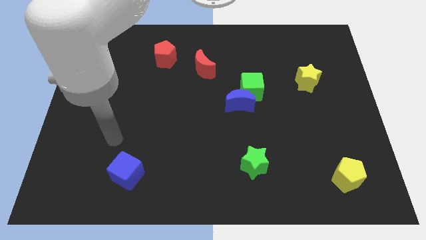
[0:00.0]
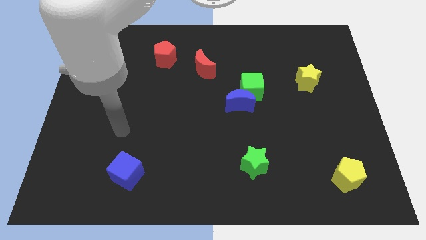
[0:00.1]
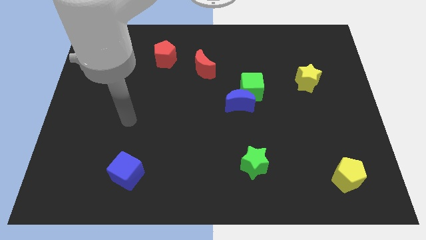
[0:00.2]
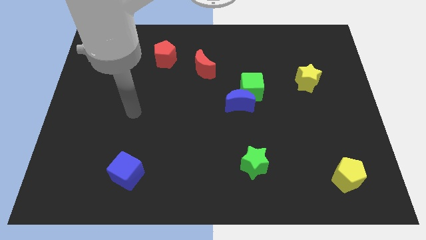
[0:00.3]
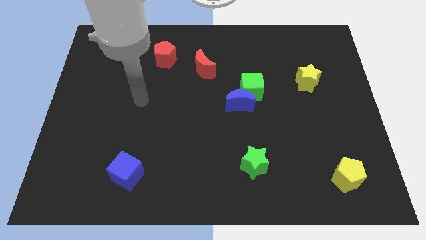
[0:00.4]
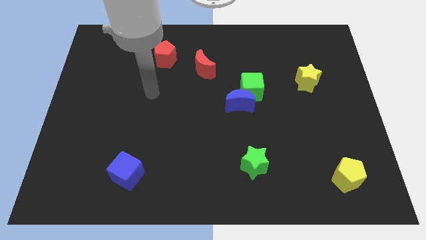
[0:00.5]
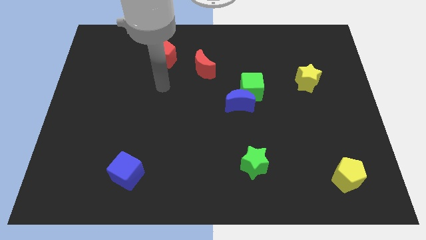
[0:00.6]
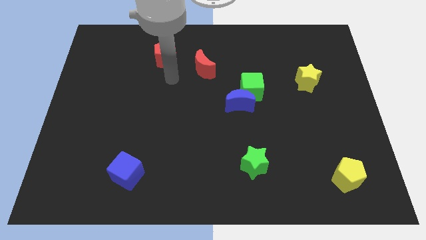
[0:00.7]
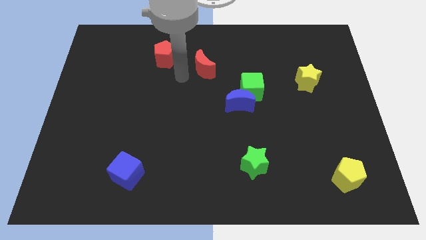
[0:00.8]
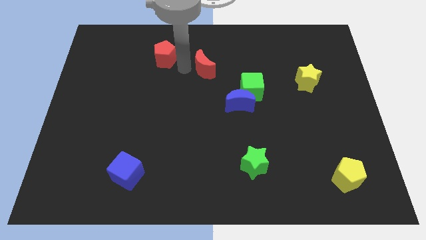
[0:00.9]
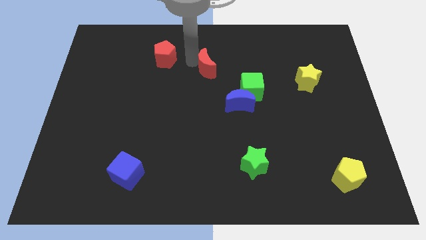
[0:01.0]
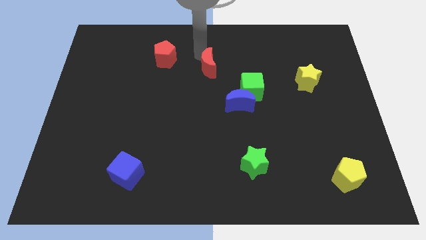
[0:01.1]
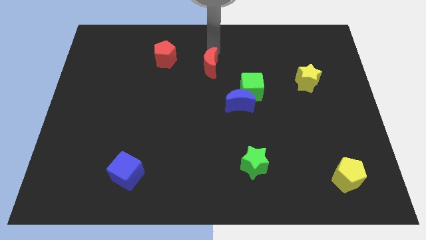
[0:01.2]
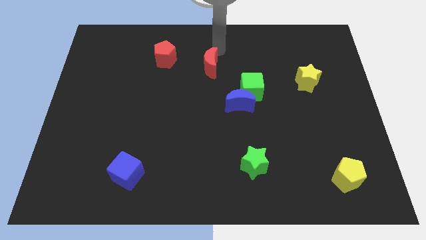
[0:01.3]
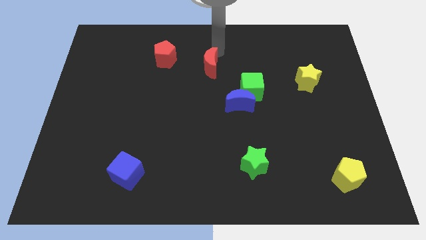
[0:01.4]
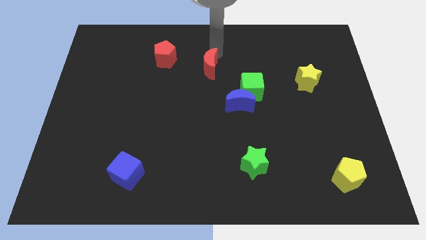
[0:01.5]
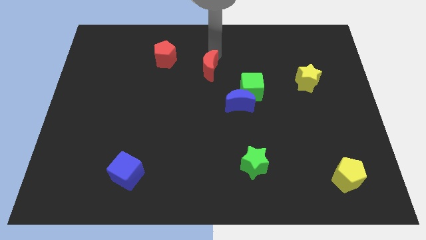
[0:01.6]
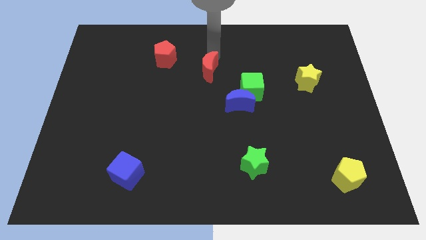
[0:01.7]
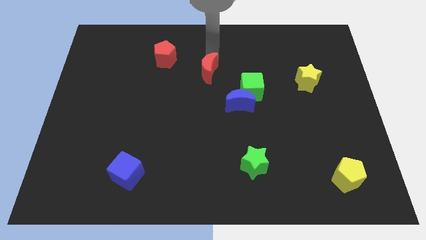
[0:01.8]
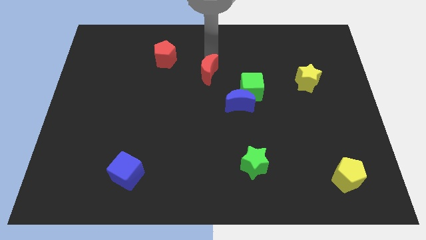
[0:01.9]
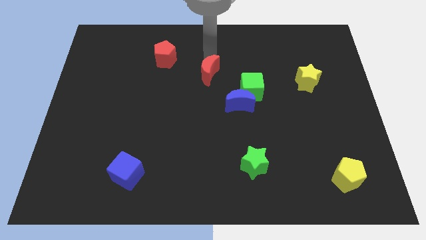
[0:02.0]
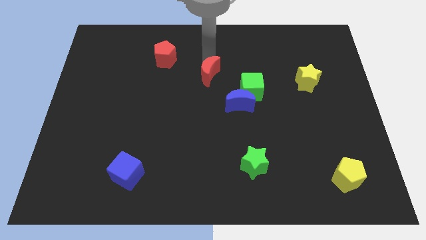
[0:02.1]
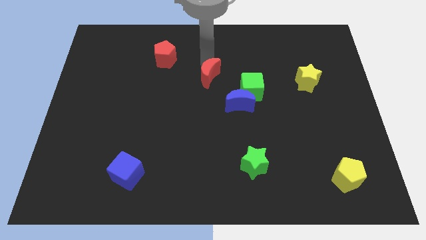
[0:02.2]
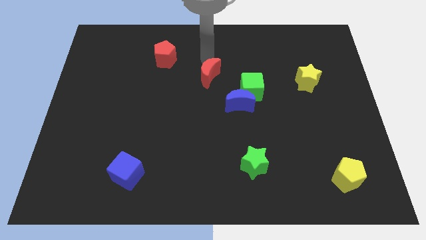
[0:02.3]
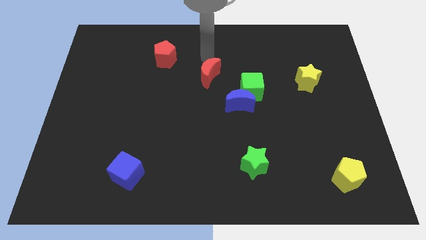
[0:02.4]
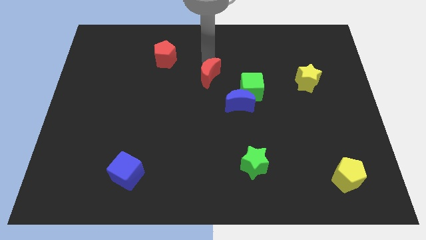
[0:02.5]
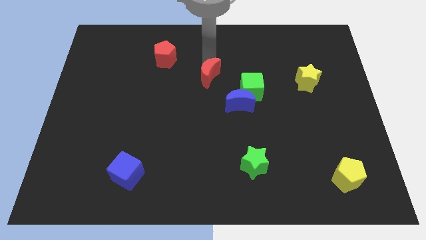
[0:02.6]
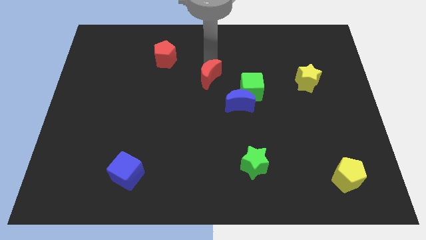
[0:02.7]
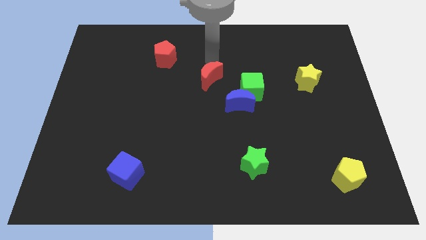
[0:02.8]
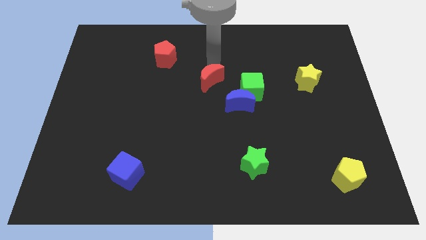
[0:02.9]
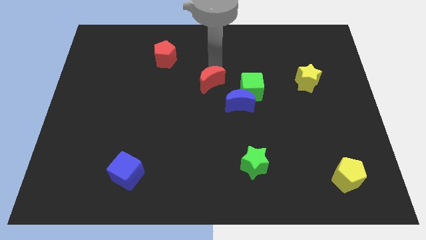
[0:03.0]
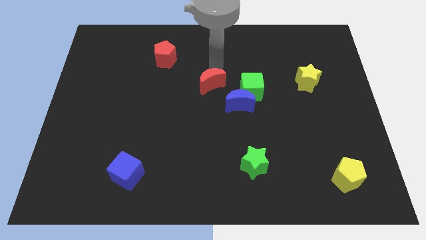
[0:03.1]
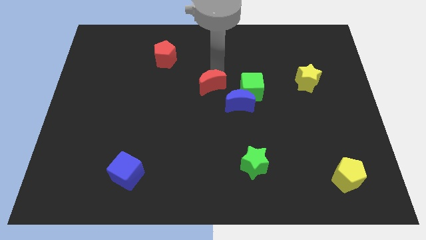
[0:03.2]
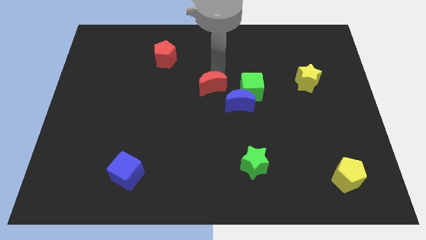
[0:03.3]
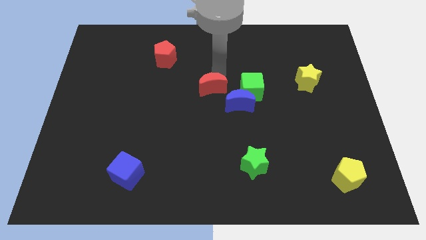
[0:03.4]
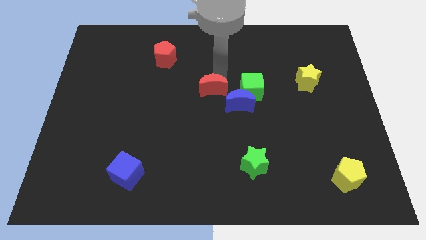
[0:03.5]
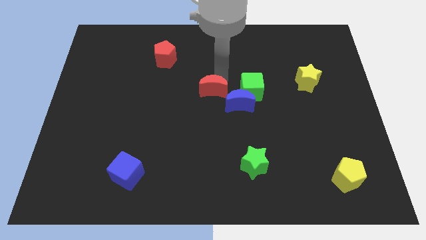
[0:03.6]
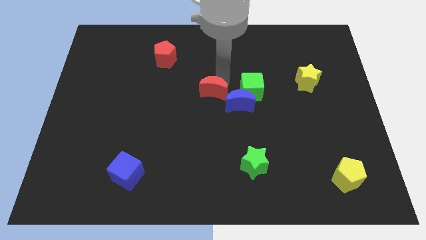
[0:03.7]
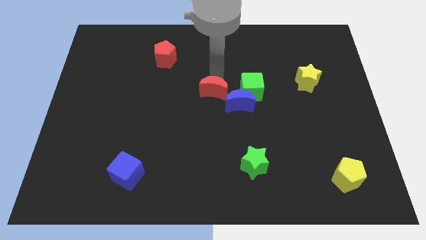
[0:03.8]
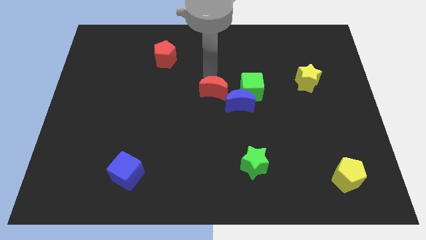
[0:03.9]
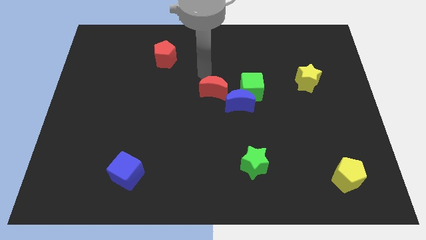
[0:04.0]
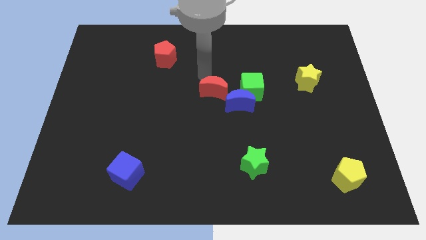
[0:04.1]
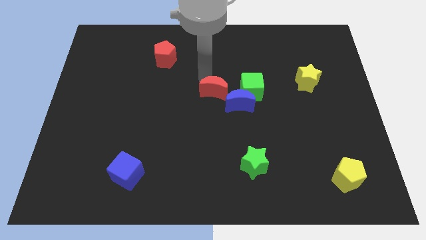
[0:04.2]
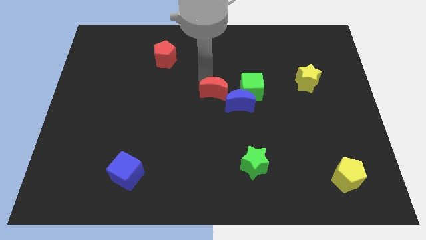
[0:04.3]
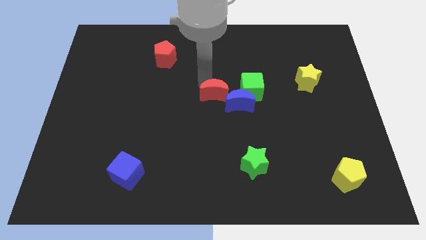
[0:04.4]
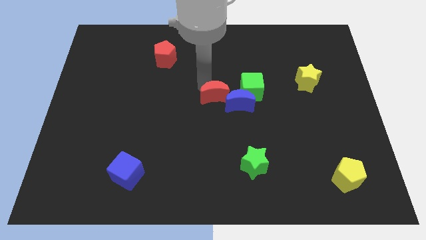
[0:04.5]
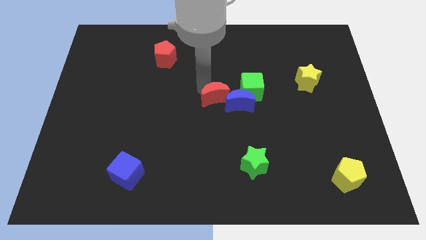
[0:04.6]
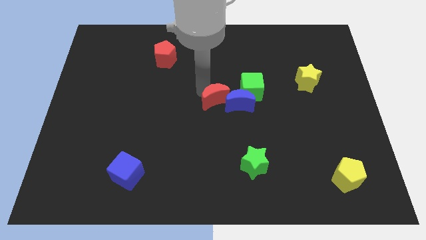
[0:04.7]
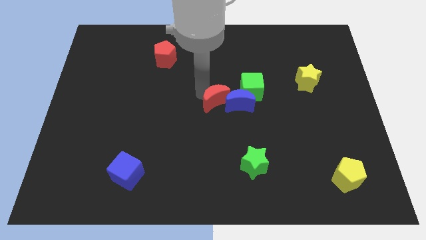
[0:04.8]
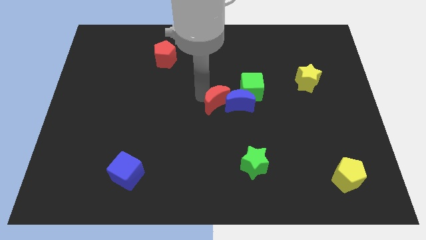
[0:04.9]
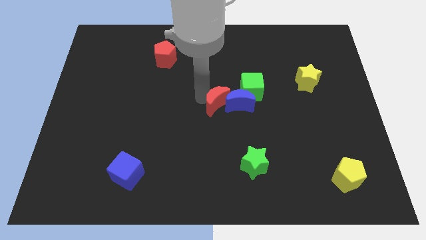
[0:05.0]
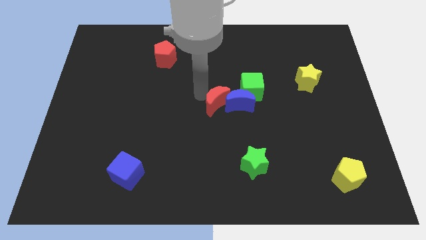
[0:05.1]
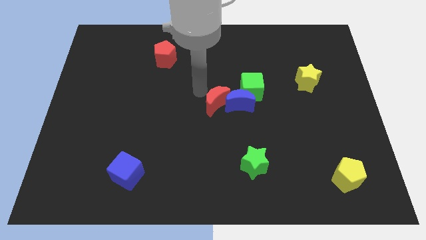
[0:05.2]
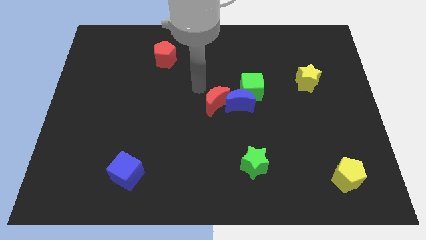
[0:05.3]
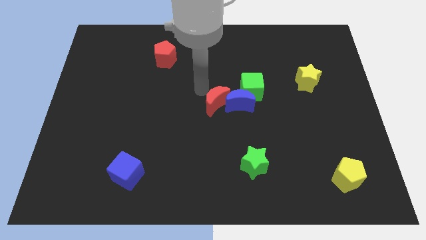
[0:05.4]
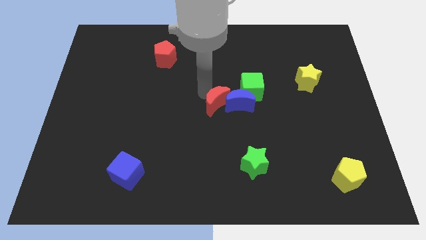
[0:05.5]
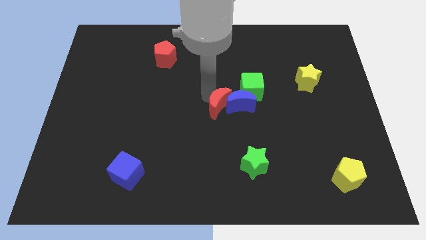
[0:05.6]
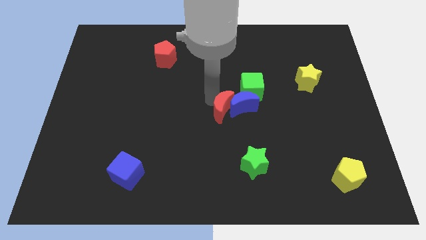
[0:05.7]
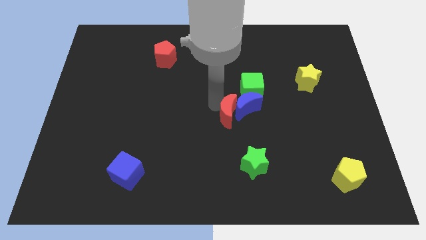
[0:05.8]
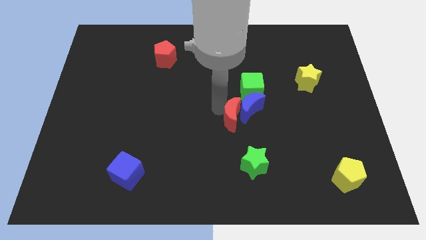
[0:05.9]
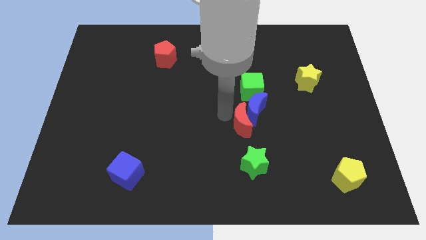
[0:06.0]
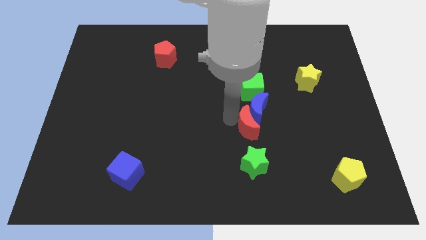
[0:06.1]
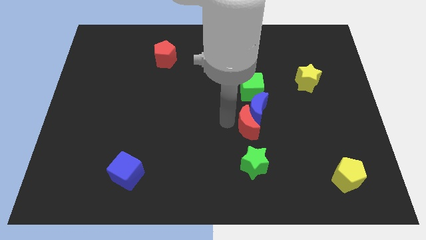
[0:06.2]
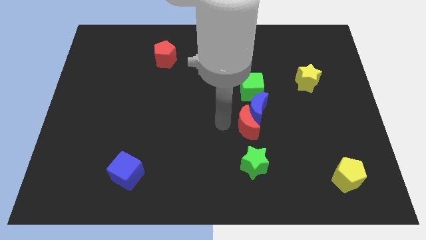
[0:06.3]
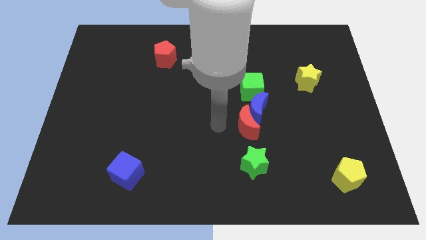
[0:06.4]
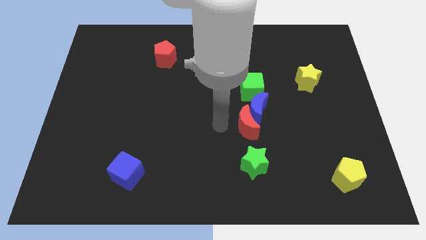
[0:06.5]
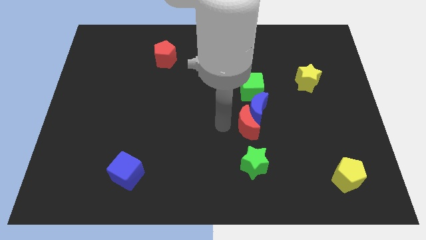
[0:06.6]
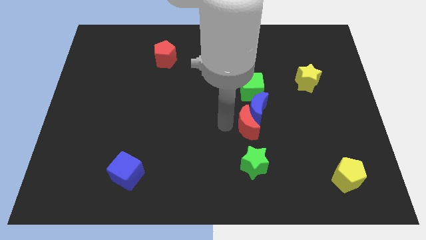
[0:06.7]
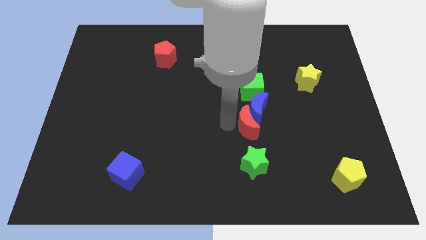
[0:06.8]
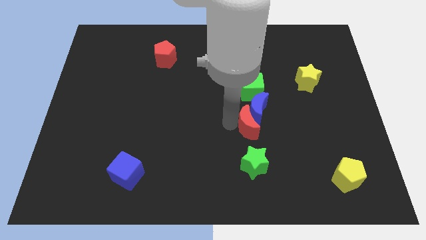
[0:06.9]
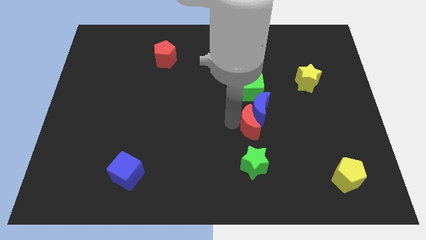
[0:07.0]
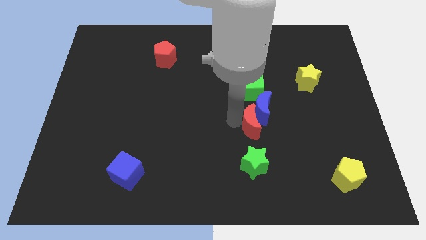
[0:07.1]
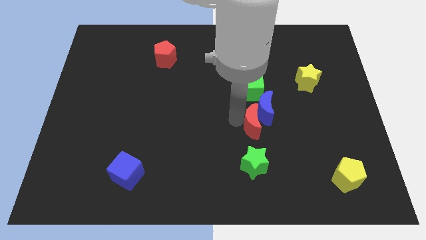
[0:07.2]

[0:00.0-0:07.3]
move the red moon diagonally downwards and right

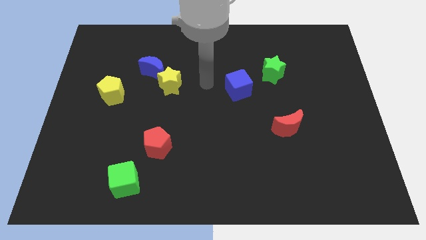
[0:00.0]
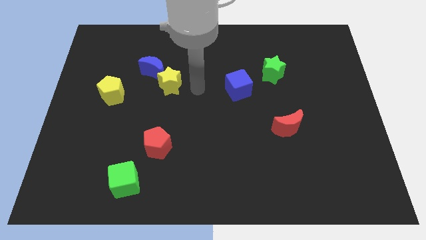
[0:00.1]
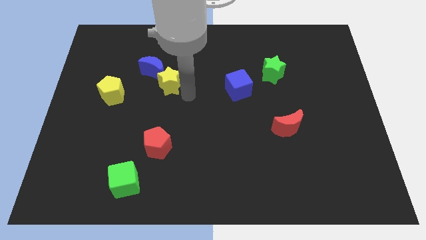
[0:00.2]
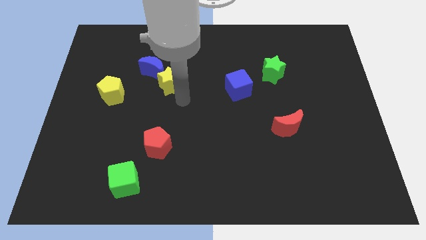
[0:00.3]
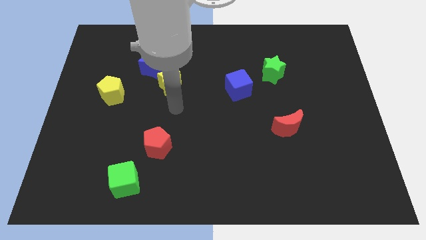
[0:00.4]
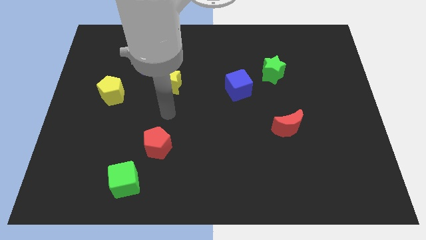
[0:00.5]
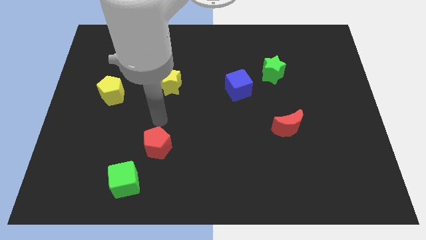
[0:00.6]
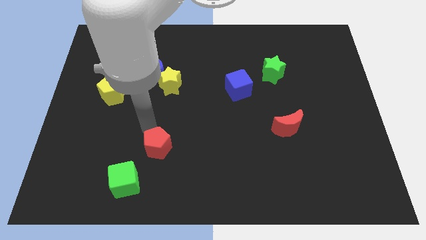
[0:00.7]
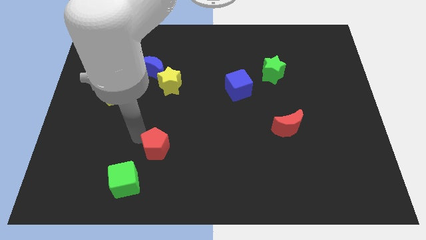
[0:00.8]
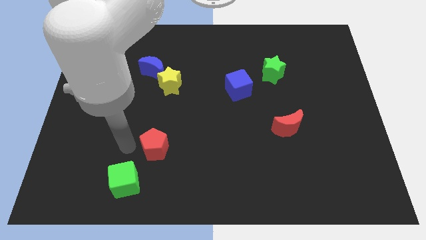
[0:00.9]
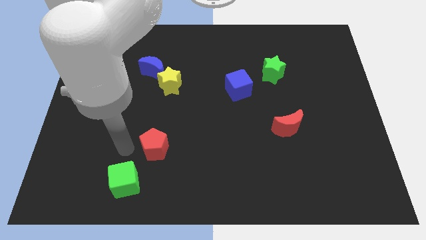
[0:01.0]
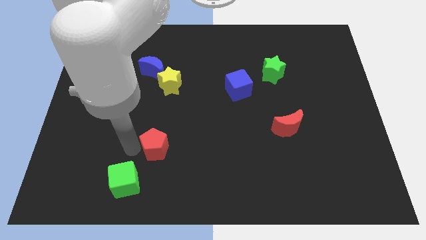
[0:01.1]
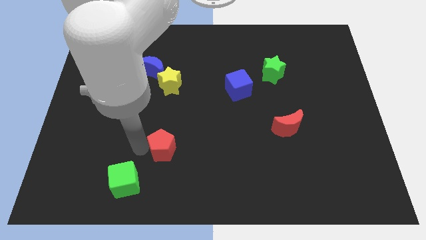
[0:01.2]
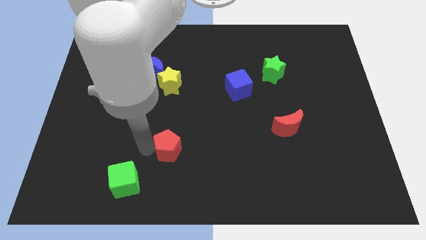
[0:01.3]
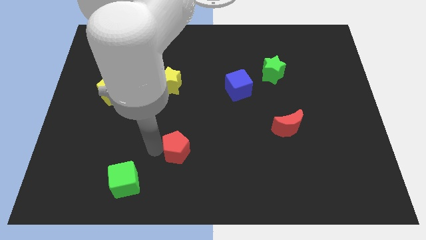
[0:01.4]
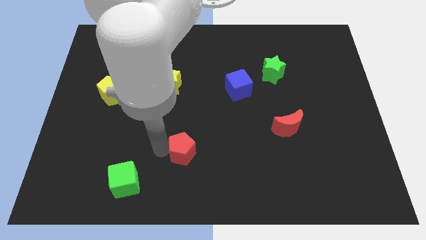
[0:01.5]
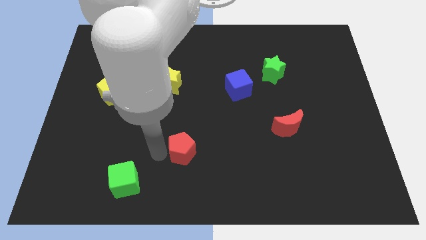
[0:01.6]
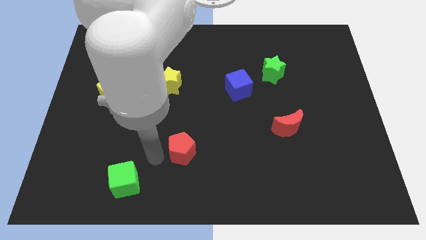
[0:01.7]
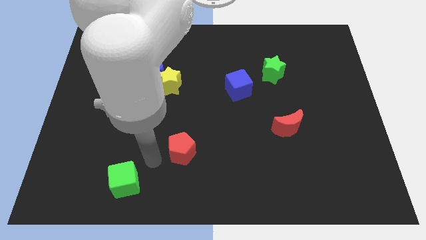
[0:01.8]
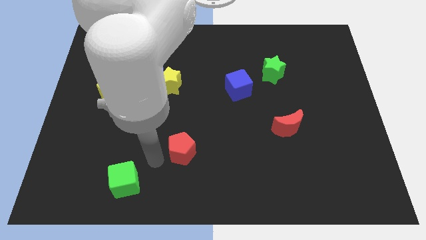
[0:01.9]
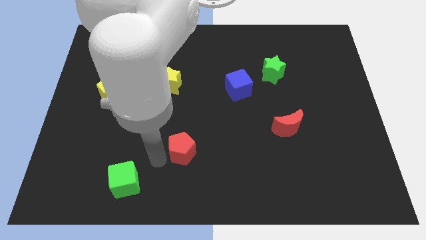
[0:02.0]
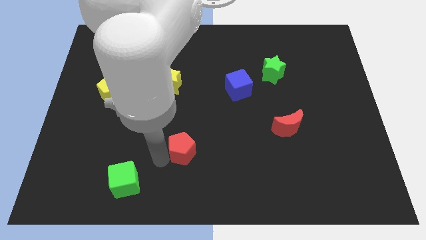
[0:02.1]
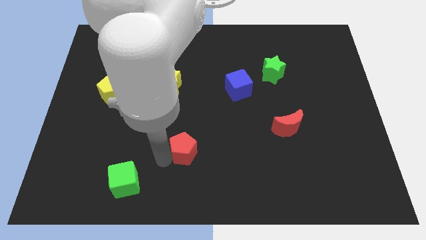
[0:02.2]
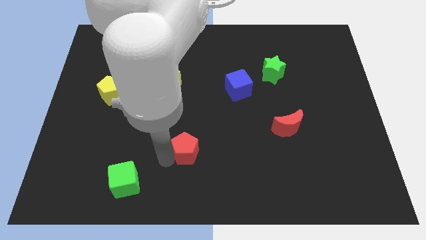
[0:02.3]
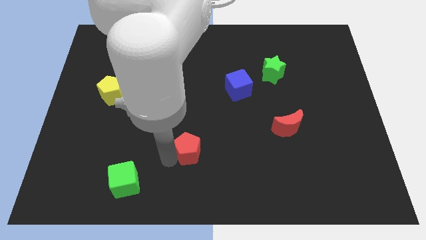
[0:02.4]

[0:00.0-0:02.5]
slide the red pentagon right a little
